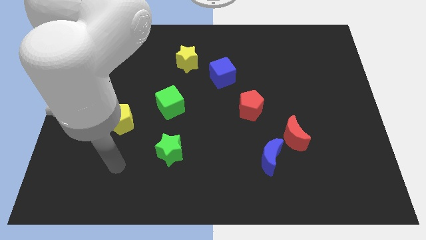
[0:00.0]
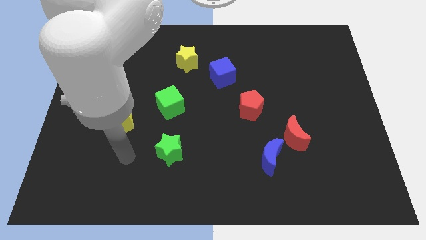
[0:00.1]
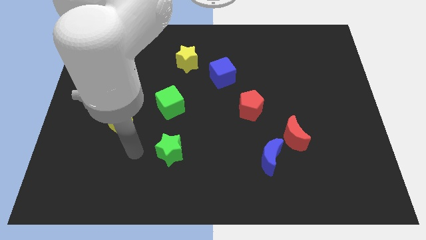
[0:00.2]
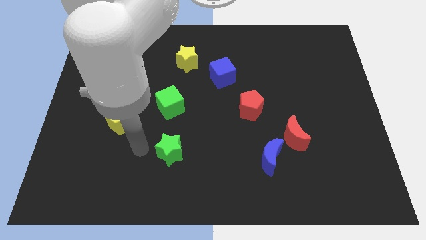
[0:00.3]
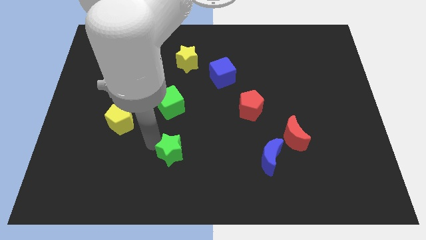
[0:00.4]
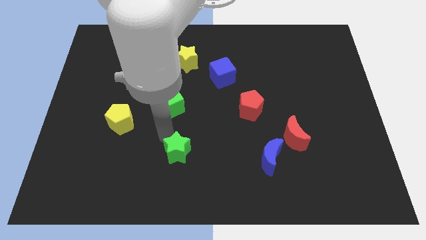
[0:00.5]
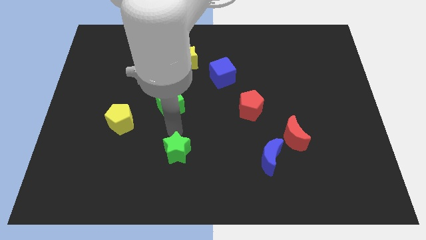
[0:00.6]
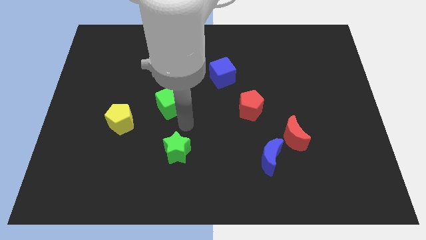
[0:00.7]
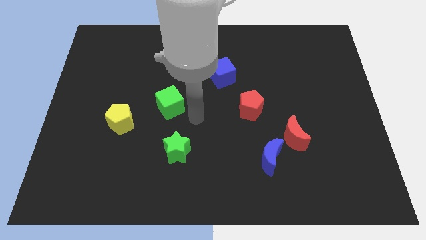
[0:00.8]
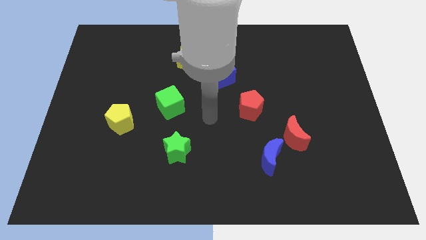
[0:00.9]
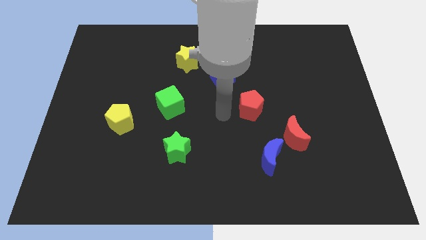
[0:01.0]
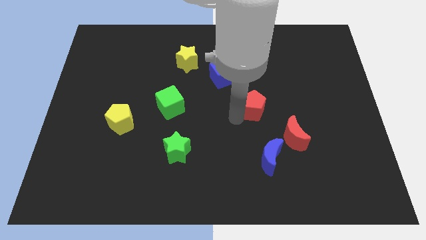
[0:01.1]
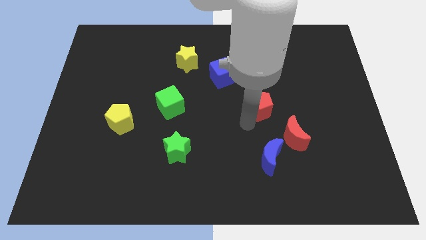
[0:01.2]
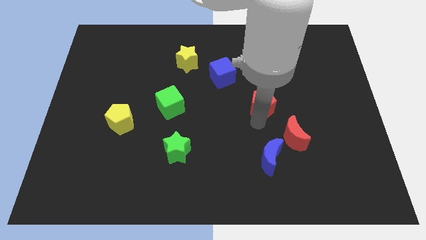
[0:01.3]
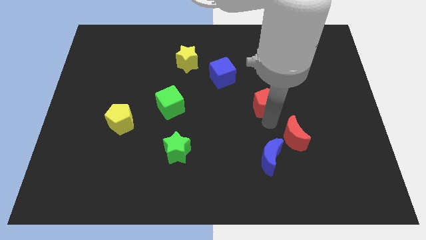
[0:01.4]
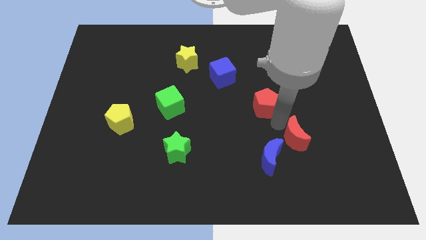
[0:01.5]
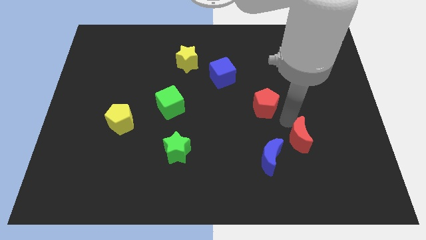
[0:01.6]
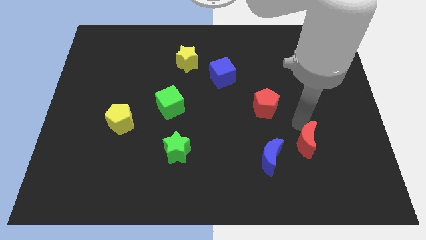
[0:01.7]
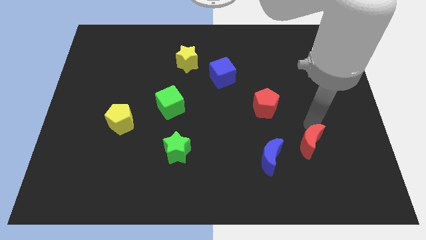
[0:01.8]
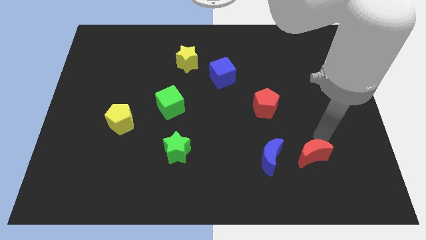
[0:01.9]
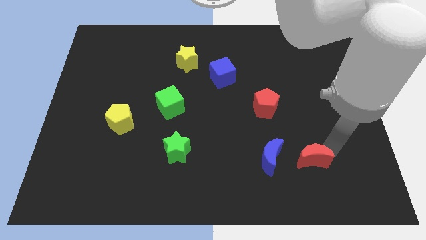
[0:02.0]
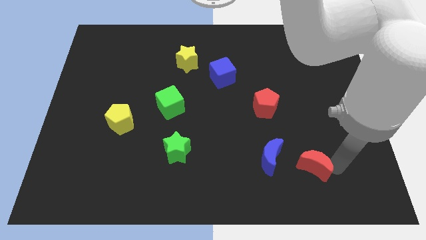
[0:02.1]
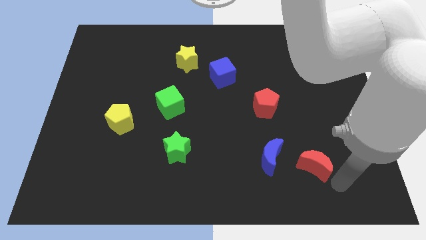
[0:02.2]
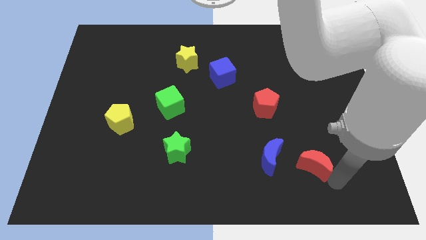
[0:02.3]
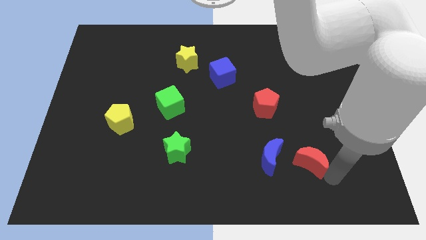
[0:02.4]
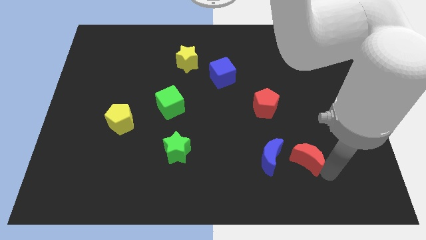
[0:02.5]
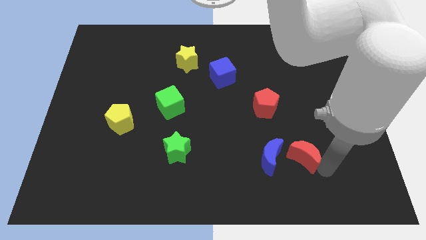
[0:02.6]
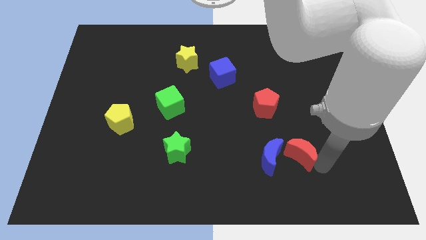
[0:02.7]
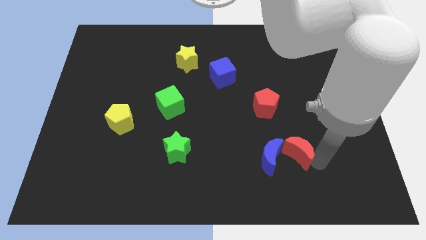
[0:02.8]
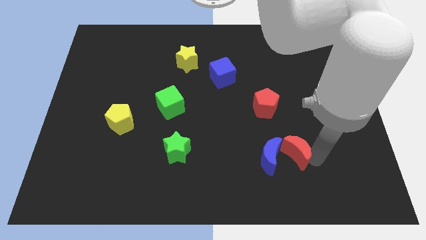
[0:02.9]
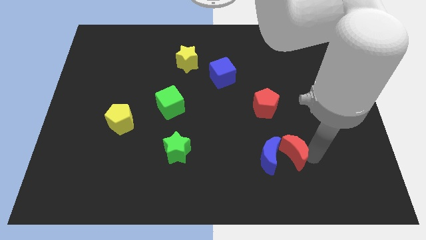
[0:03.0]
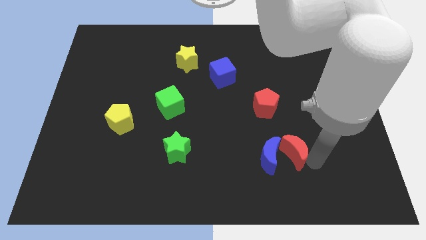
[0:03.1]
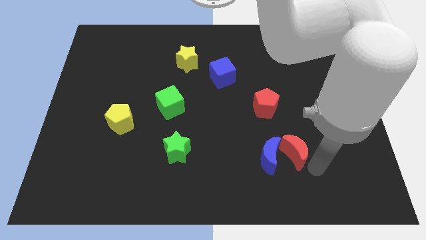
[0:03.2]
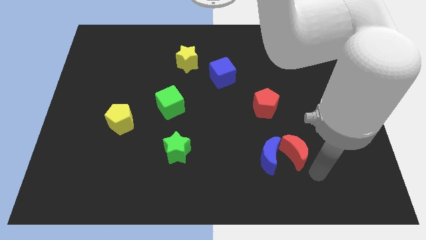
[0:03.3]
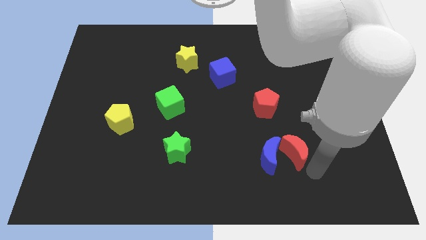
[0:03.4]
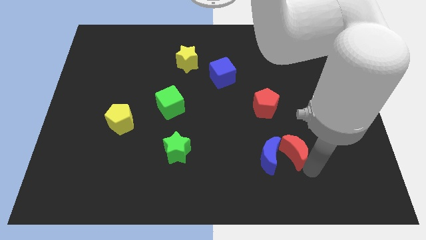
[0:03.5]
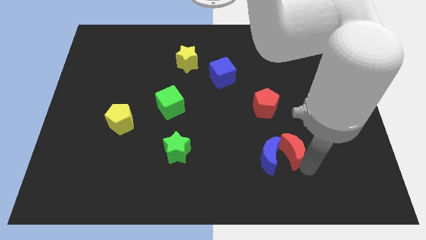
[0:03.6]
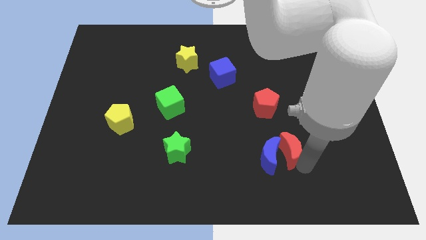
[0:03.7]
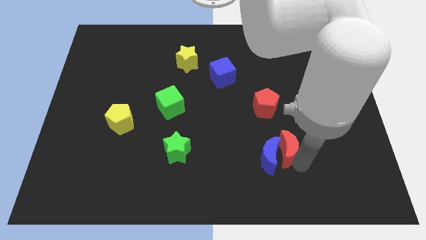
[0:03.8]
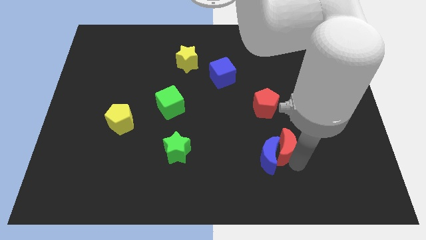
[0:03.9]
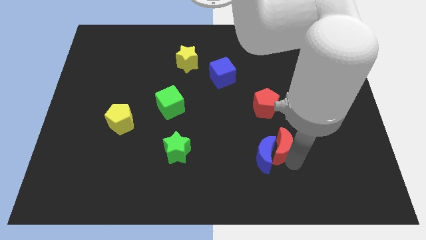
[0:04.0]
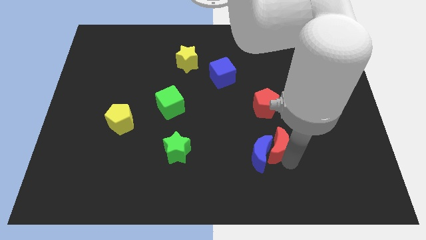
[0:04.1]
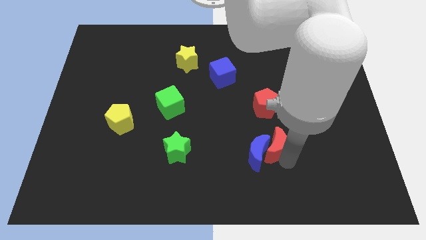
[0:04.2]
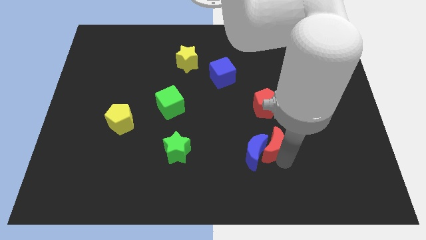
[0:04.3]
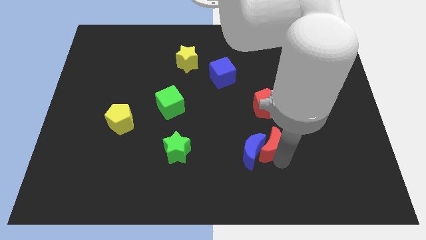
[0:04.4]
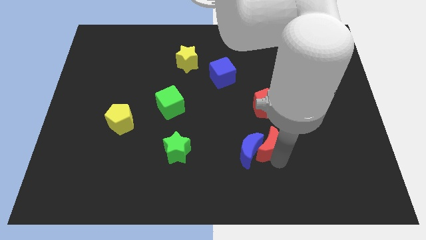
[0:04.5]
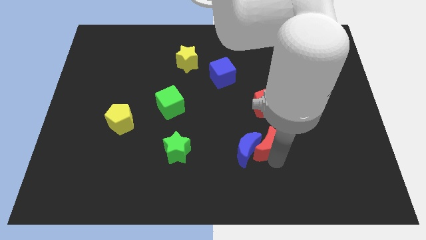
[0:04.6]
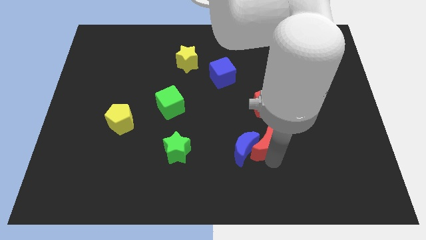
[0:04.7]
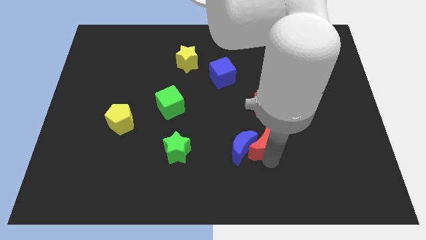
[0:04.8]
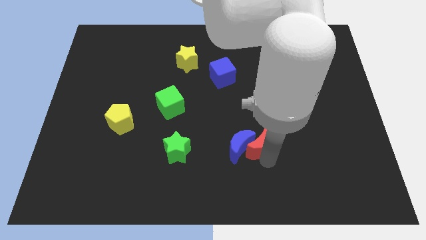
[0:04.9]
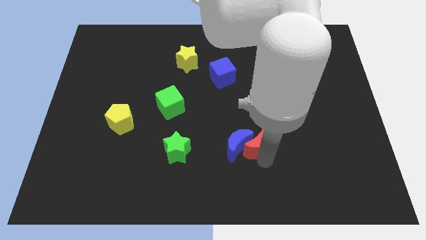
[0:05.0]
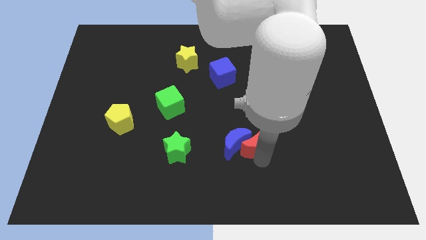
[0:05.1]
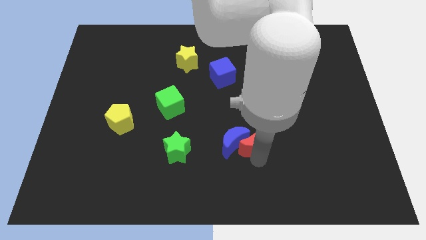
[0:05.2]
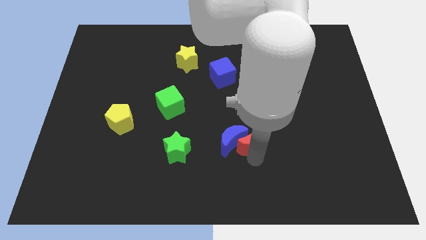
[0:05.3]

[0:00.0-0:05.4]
move the red moon just right of the green star
